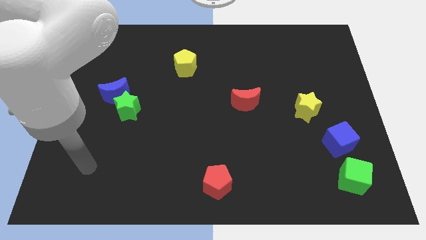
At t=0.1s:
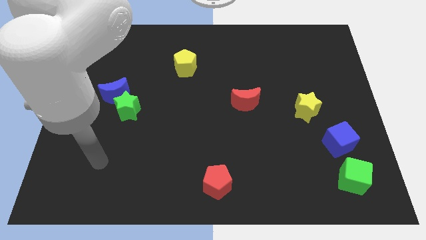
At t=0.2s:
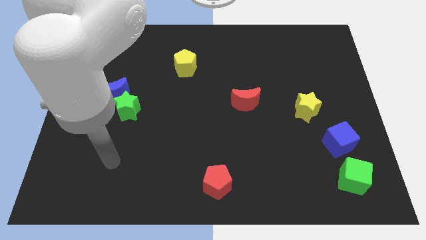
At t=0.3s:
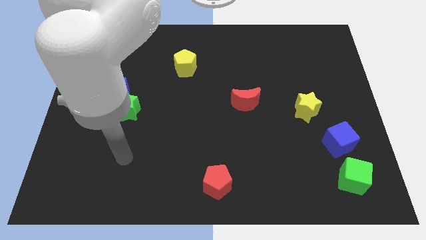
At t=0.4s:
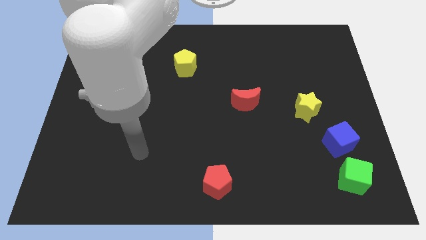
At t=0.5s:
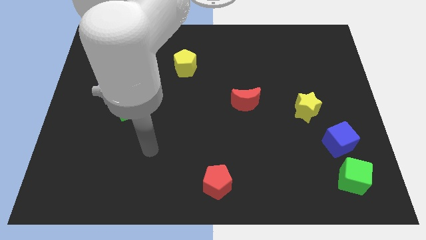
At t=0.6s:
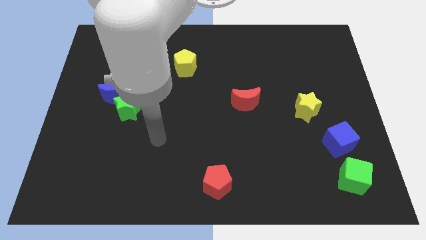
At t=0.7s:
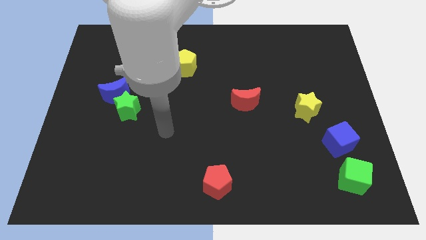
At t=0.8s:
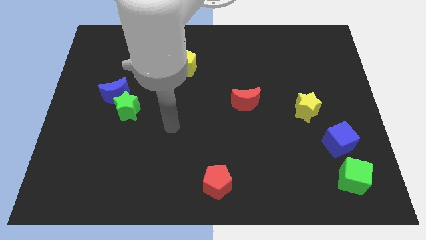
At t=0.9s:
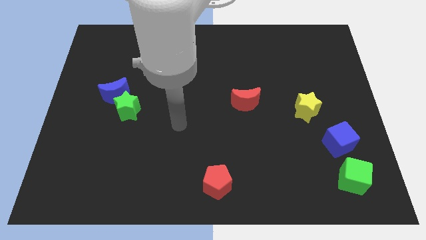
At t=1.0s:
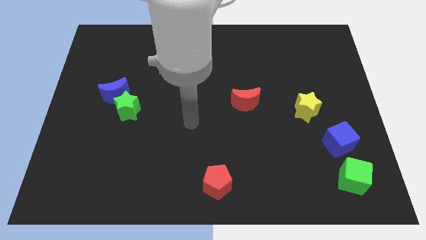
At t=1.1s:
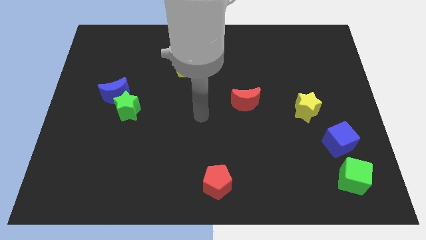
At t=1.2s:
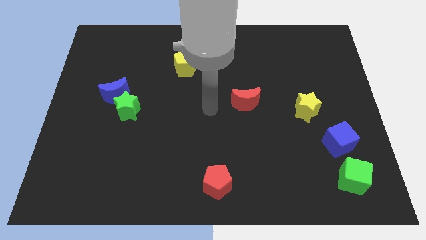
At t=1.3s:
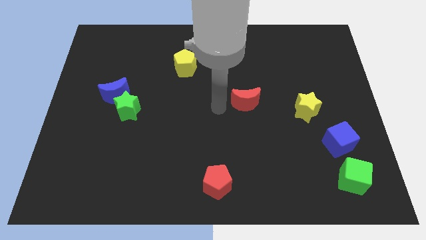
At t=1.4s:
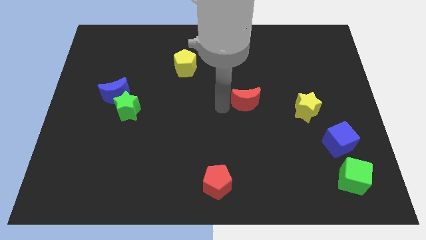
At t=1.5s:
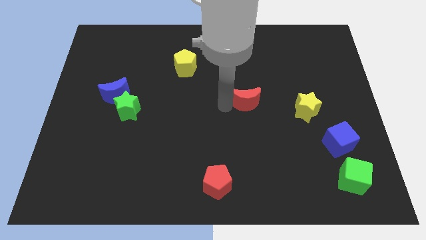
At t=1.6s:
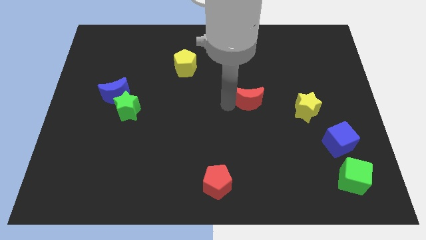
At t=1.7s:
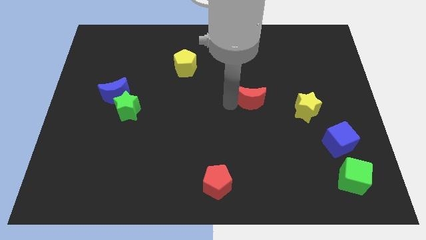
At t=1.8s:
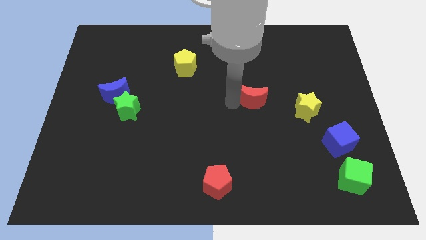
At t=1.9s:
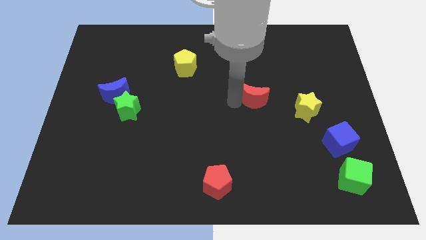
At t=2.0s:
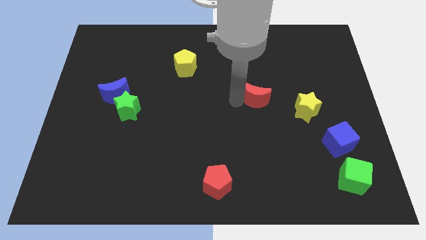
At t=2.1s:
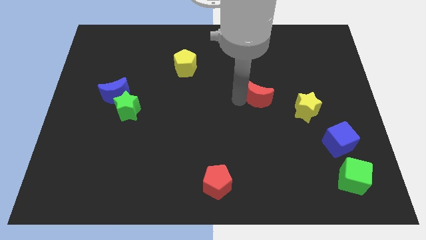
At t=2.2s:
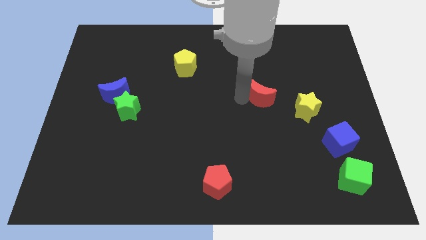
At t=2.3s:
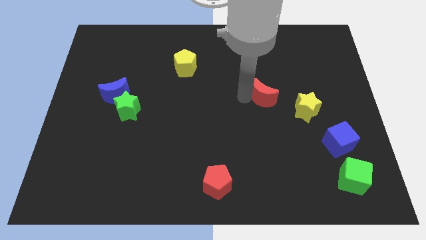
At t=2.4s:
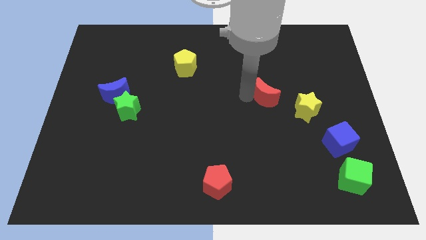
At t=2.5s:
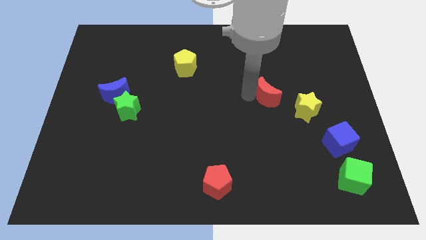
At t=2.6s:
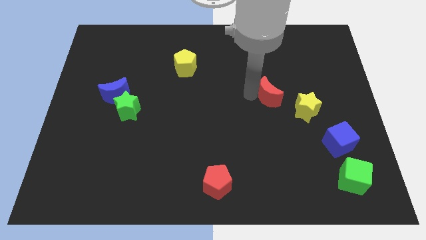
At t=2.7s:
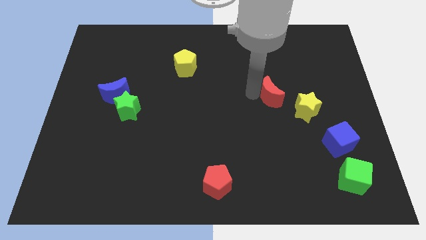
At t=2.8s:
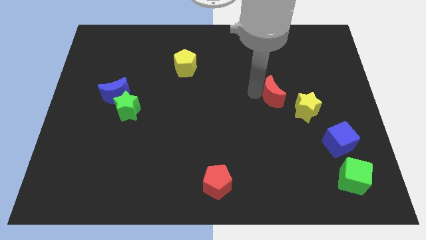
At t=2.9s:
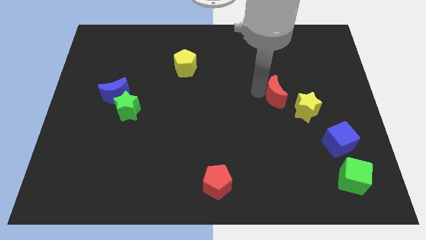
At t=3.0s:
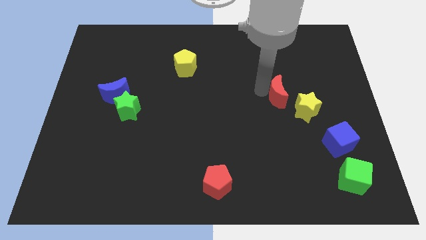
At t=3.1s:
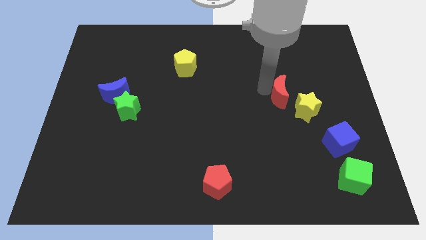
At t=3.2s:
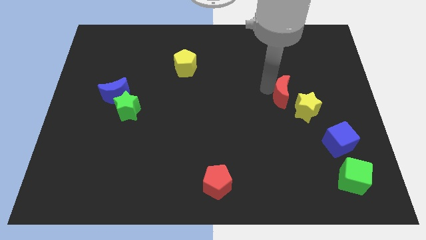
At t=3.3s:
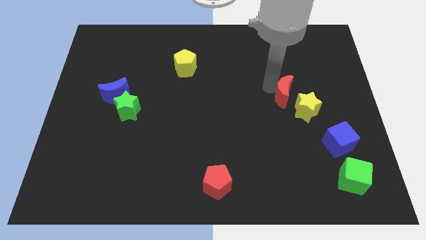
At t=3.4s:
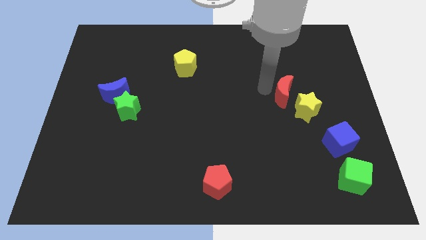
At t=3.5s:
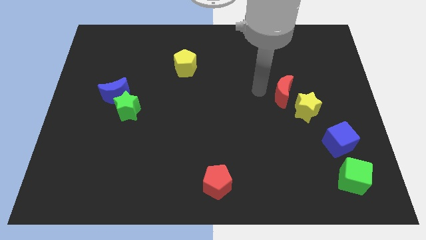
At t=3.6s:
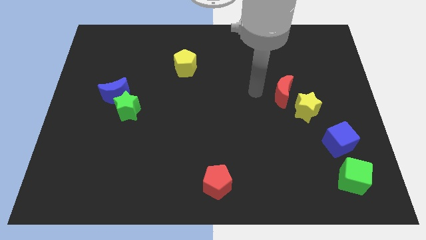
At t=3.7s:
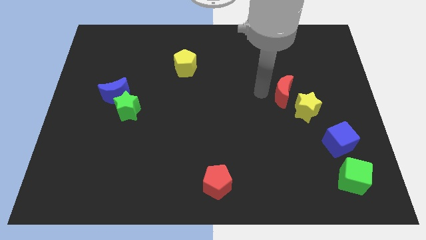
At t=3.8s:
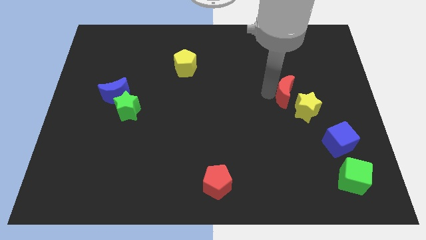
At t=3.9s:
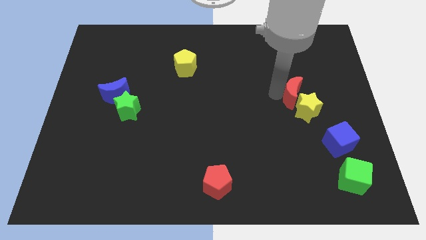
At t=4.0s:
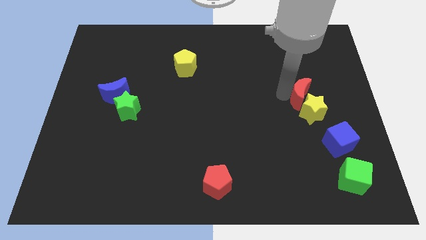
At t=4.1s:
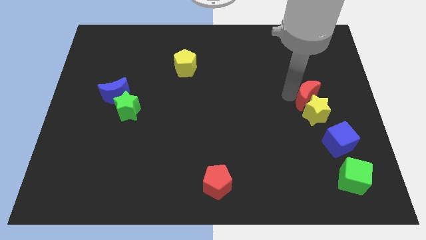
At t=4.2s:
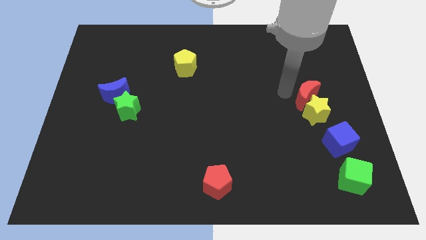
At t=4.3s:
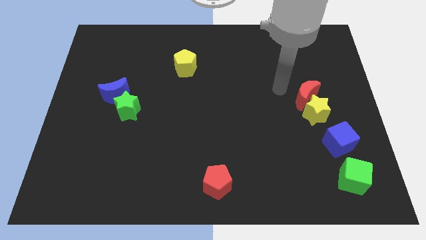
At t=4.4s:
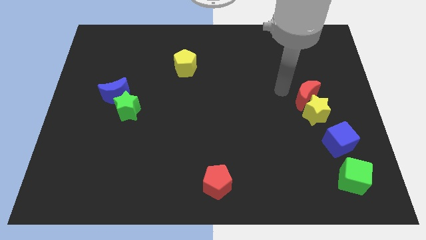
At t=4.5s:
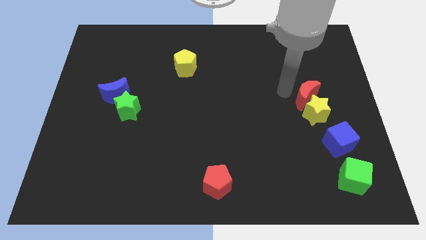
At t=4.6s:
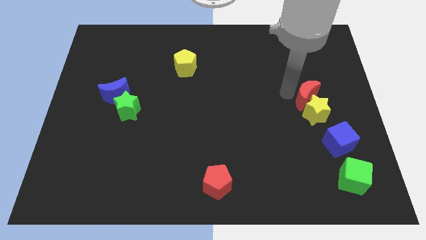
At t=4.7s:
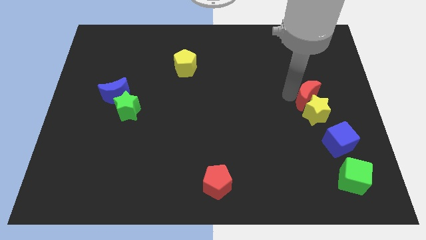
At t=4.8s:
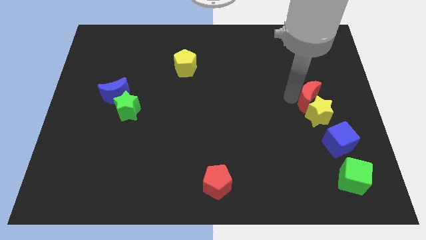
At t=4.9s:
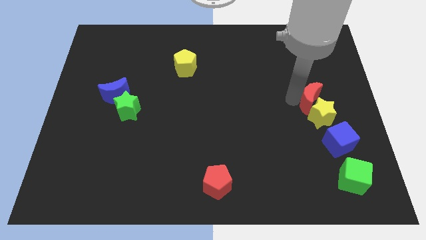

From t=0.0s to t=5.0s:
move the red moon above the blue cube

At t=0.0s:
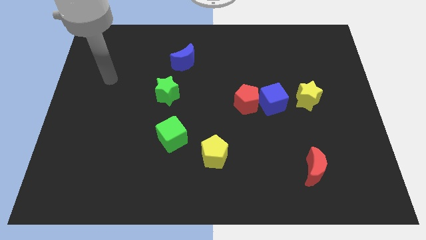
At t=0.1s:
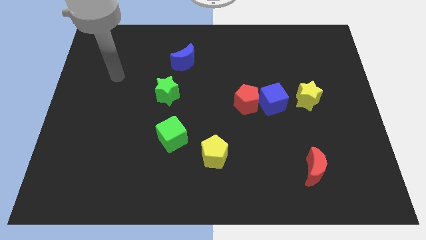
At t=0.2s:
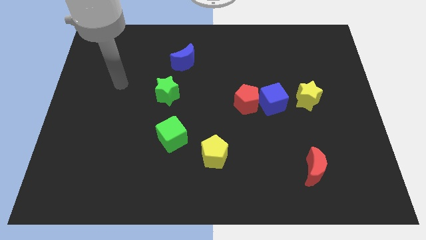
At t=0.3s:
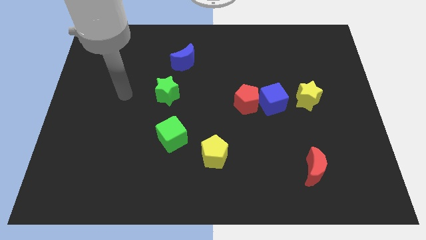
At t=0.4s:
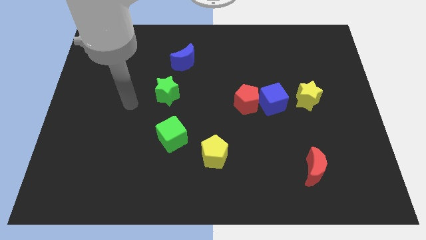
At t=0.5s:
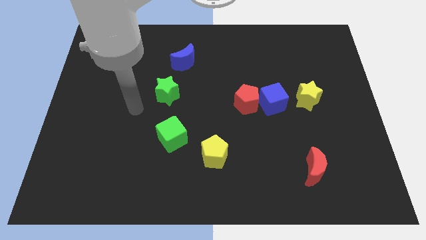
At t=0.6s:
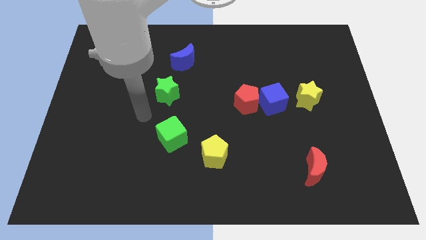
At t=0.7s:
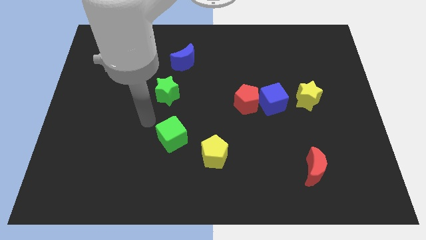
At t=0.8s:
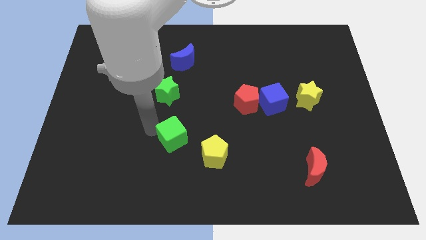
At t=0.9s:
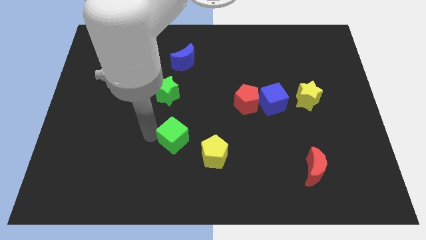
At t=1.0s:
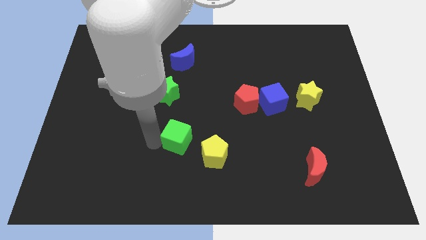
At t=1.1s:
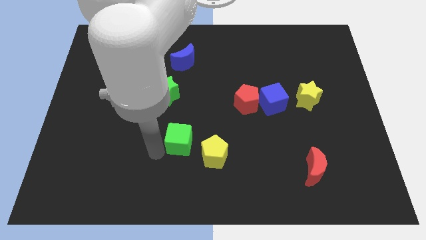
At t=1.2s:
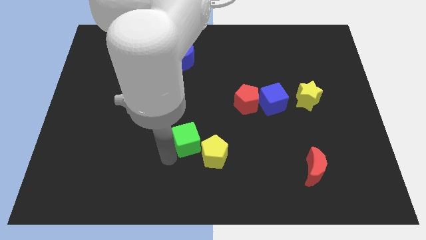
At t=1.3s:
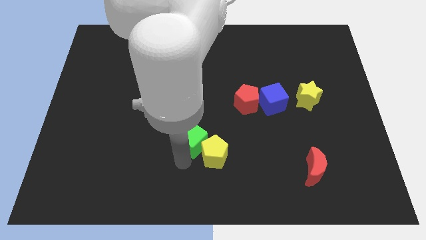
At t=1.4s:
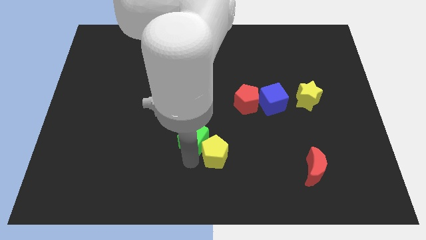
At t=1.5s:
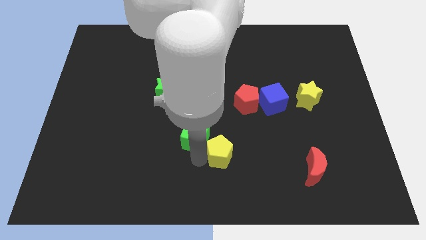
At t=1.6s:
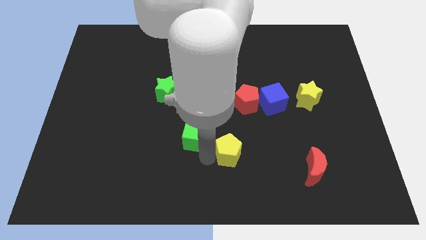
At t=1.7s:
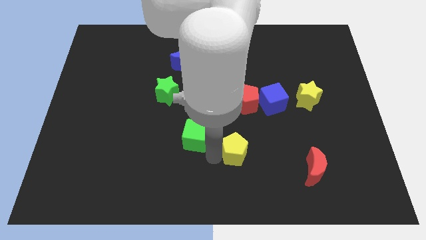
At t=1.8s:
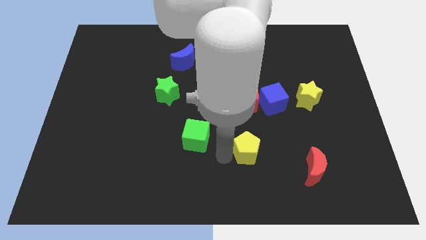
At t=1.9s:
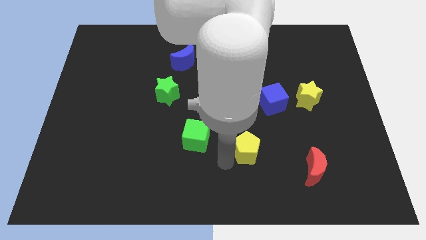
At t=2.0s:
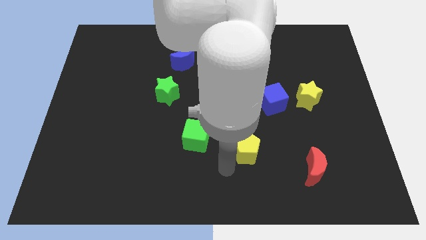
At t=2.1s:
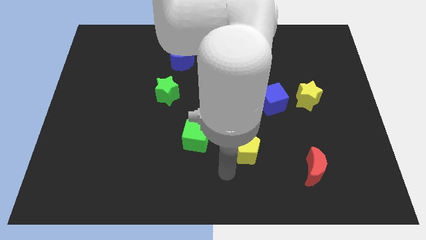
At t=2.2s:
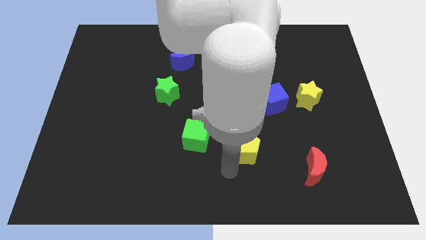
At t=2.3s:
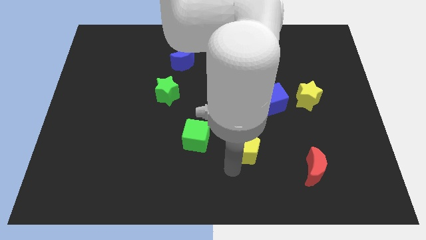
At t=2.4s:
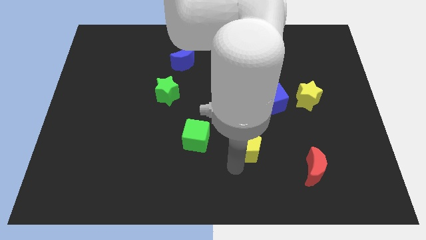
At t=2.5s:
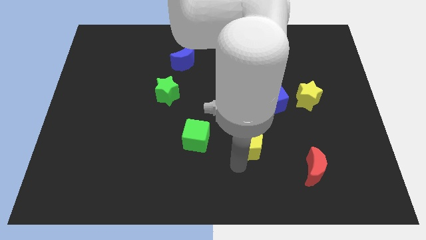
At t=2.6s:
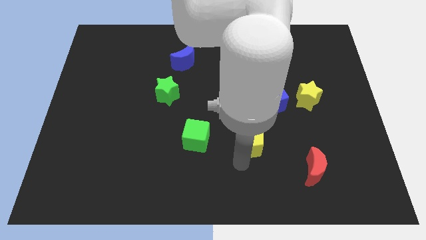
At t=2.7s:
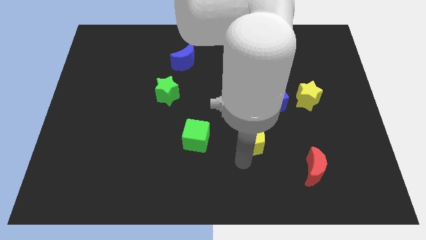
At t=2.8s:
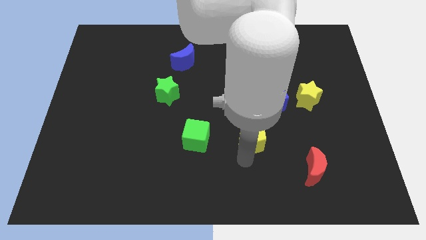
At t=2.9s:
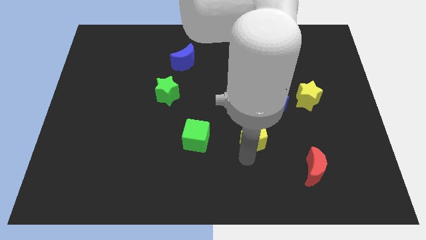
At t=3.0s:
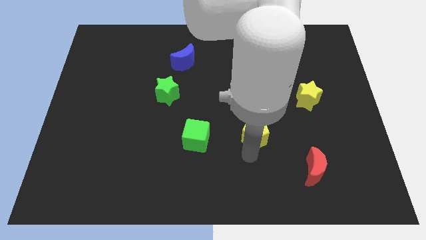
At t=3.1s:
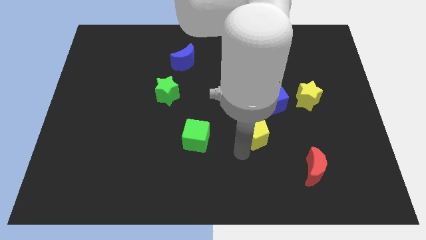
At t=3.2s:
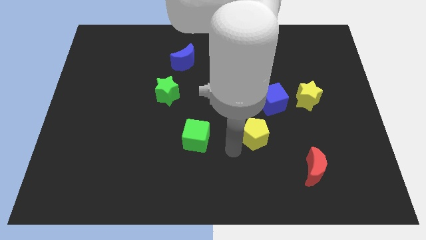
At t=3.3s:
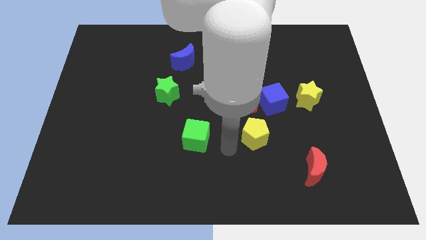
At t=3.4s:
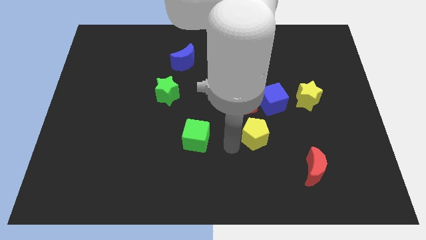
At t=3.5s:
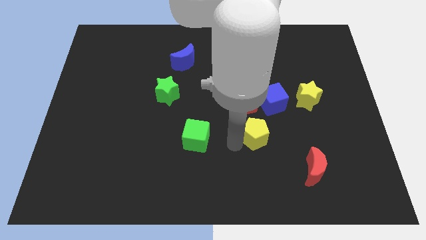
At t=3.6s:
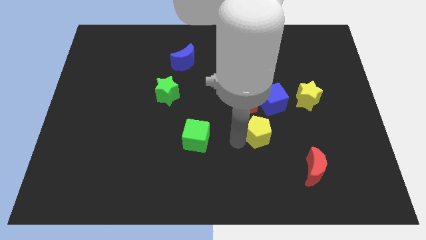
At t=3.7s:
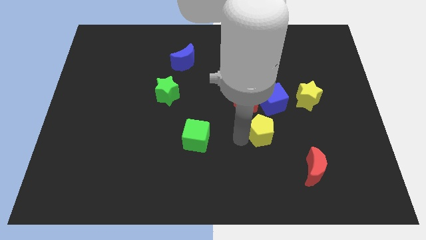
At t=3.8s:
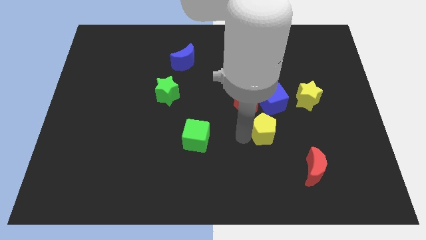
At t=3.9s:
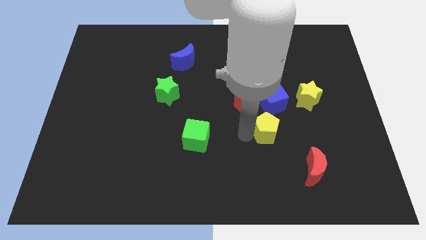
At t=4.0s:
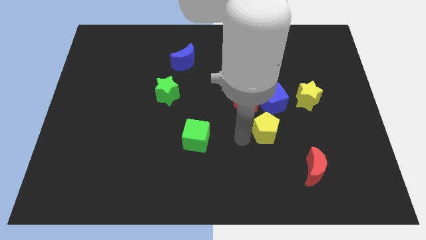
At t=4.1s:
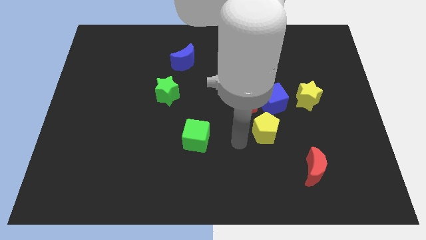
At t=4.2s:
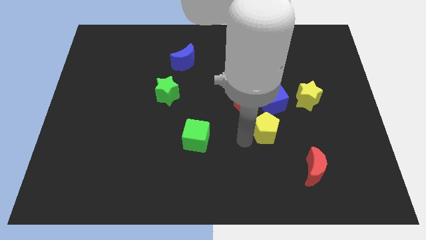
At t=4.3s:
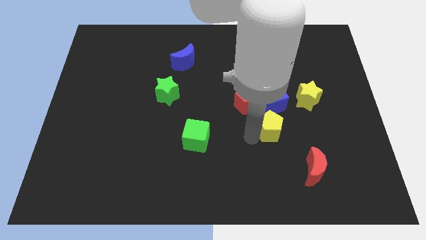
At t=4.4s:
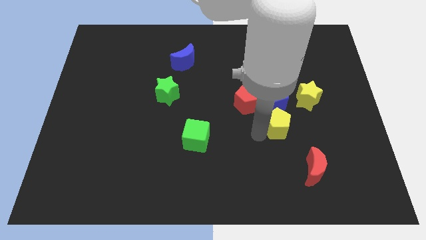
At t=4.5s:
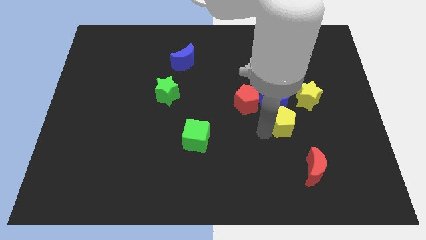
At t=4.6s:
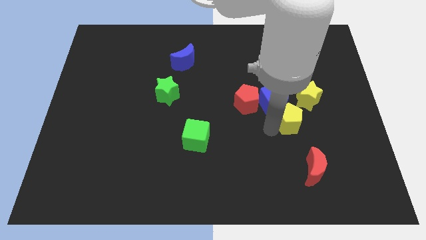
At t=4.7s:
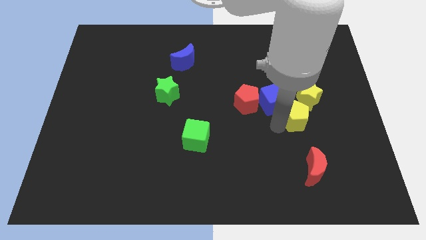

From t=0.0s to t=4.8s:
put the yellow pentagon to the right of the blue cube
